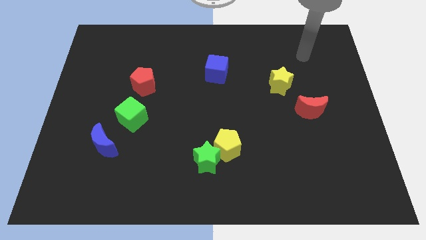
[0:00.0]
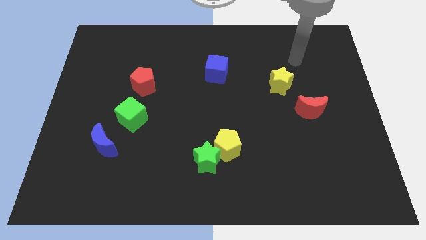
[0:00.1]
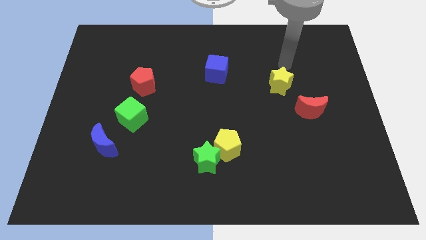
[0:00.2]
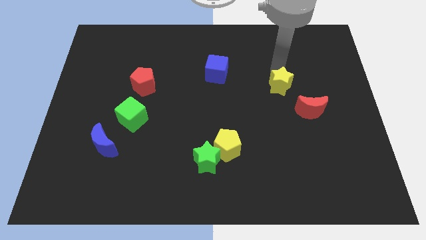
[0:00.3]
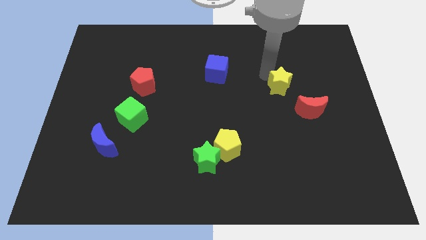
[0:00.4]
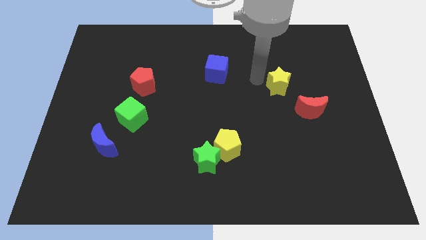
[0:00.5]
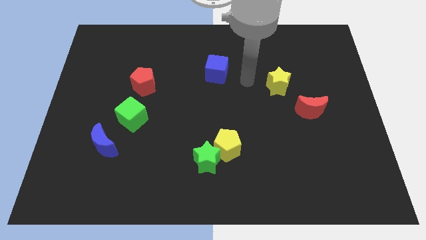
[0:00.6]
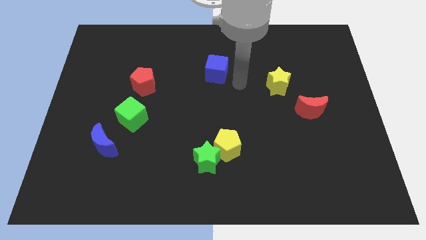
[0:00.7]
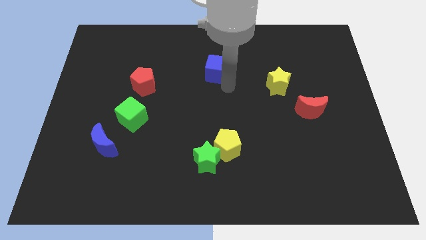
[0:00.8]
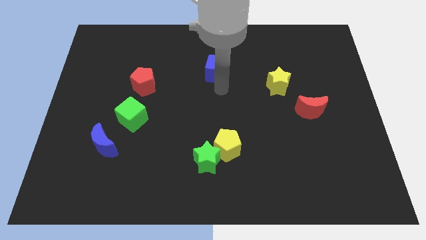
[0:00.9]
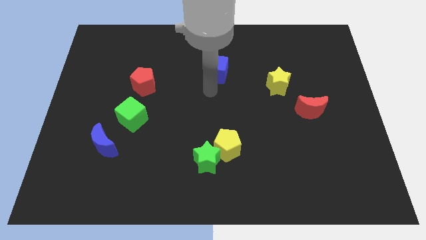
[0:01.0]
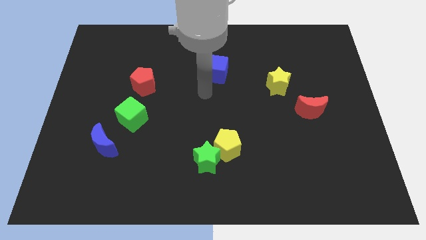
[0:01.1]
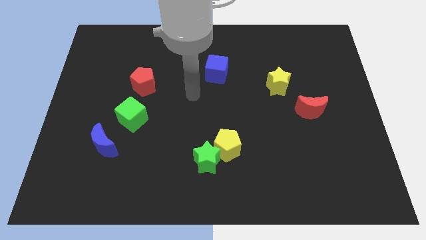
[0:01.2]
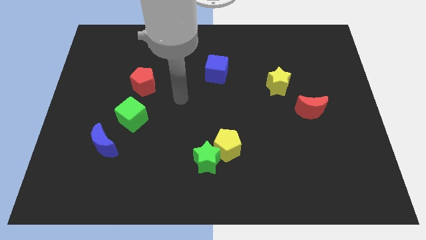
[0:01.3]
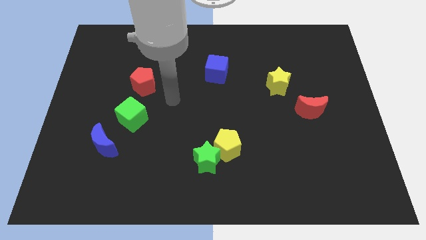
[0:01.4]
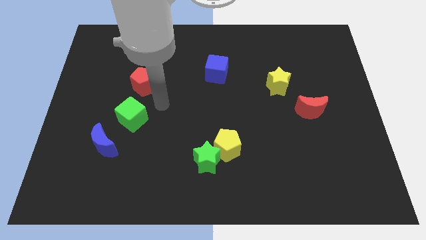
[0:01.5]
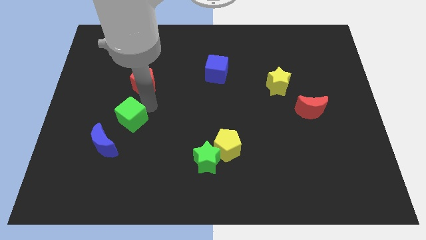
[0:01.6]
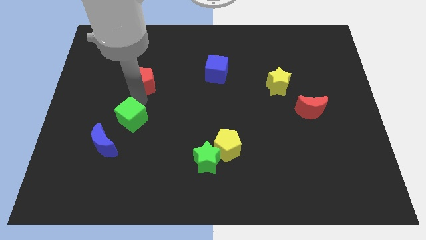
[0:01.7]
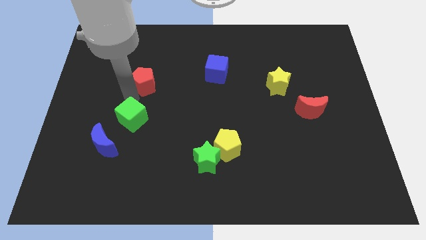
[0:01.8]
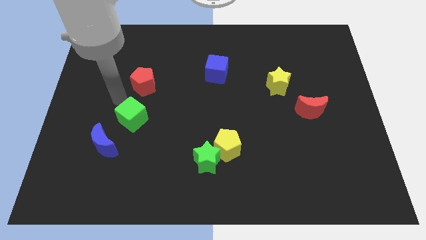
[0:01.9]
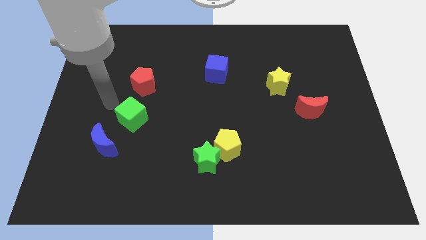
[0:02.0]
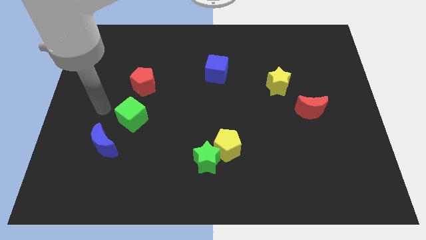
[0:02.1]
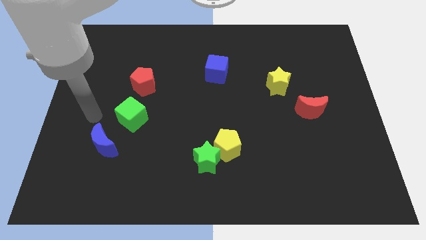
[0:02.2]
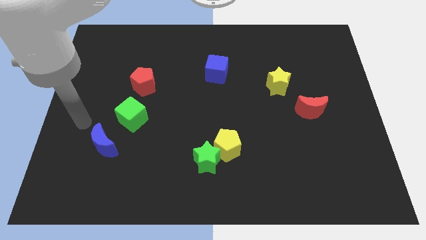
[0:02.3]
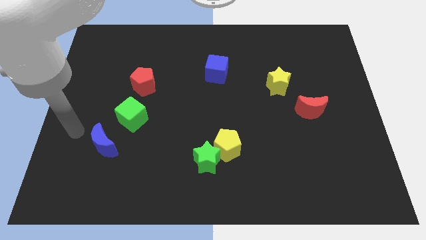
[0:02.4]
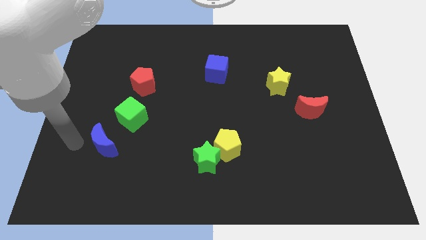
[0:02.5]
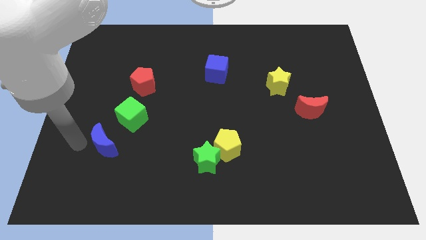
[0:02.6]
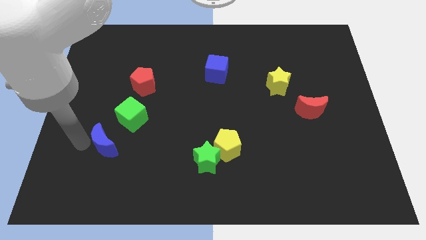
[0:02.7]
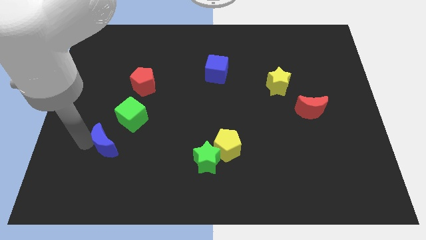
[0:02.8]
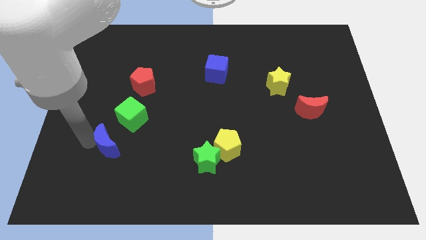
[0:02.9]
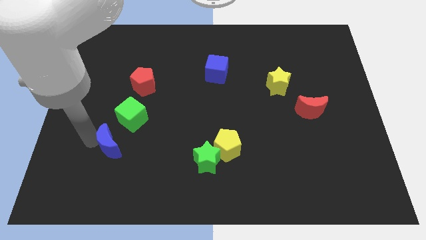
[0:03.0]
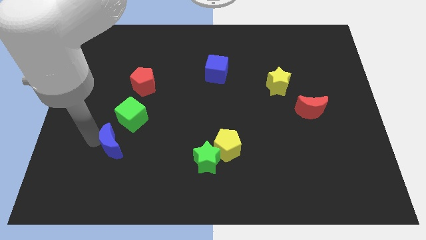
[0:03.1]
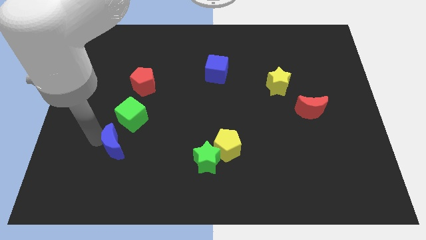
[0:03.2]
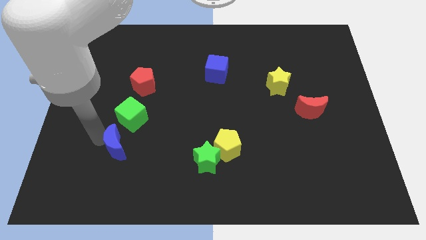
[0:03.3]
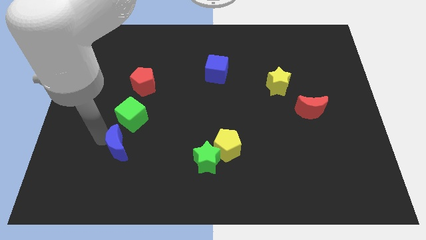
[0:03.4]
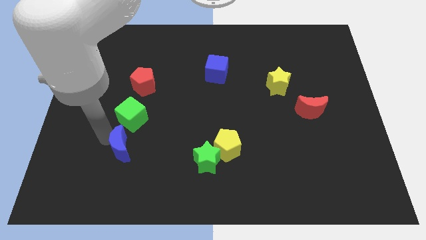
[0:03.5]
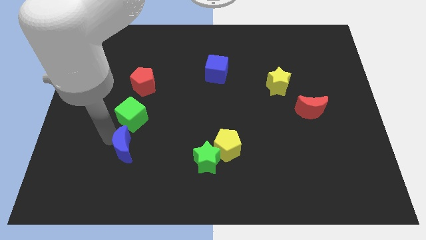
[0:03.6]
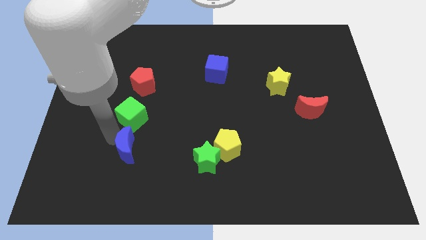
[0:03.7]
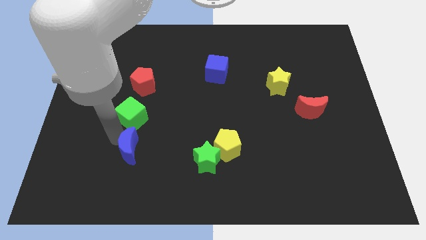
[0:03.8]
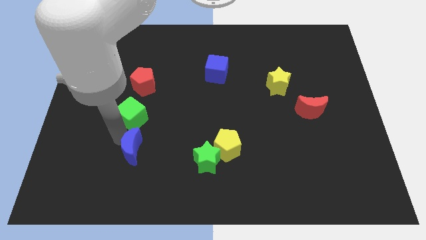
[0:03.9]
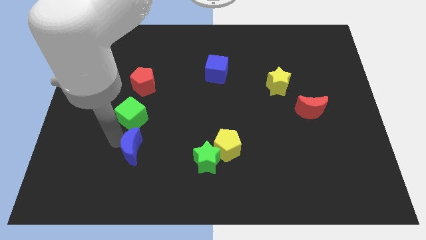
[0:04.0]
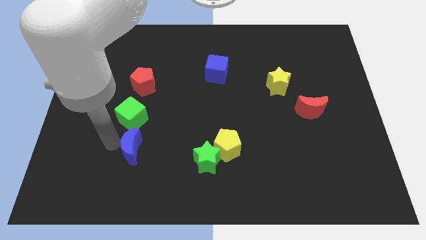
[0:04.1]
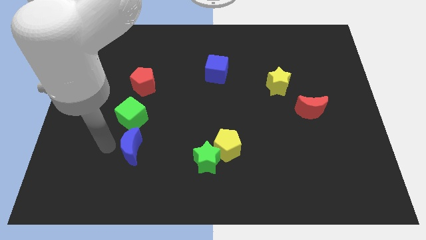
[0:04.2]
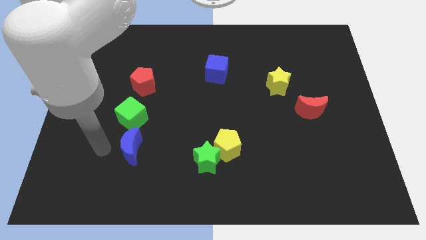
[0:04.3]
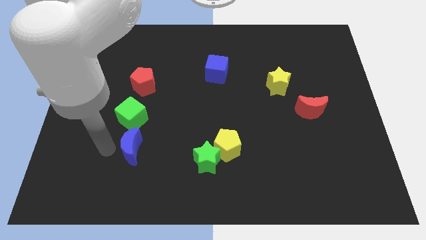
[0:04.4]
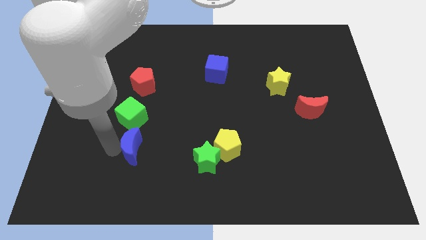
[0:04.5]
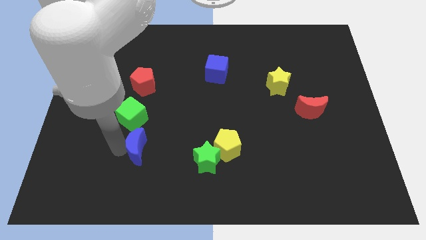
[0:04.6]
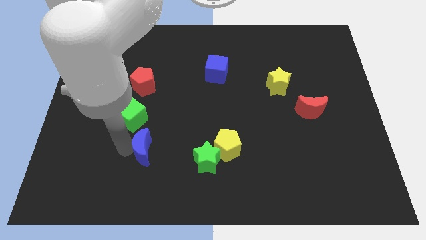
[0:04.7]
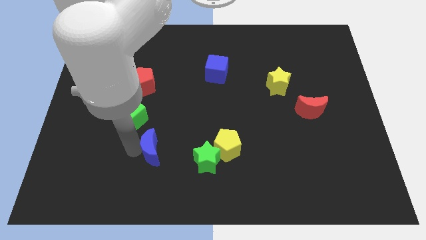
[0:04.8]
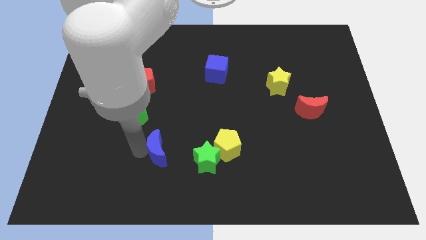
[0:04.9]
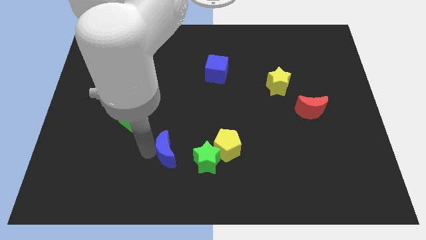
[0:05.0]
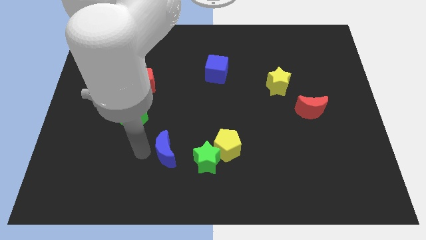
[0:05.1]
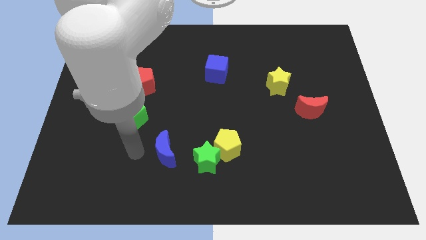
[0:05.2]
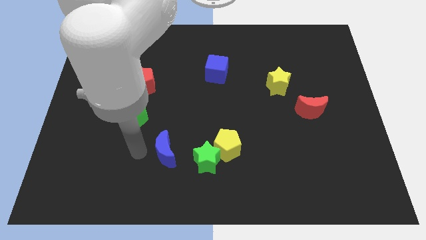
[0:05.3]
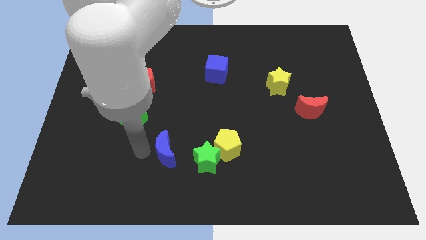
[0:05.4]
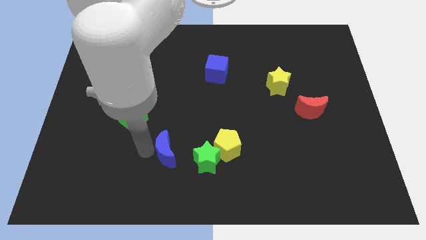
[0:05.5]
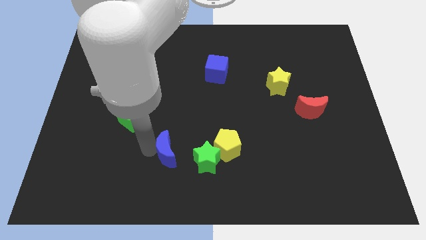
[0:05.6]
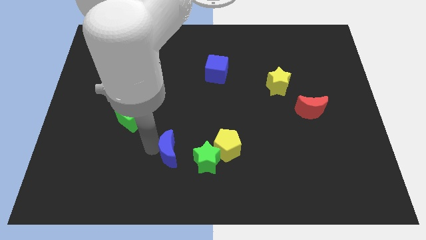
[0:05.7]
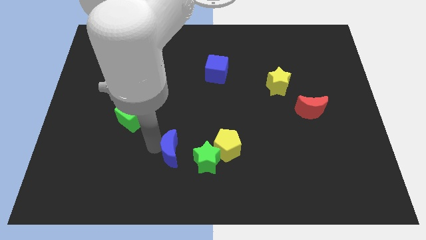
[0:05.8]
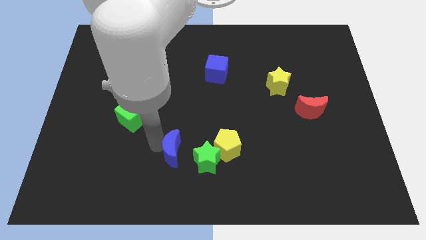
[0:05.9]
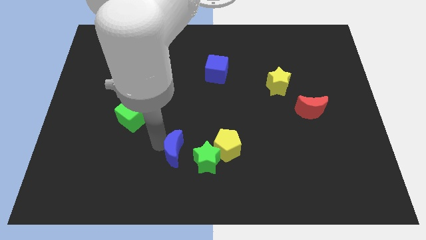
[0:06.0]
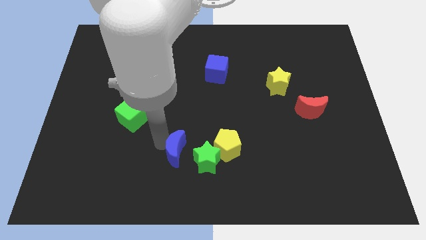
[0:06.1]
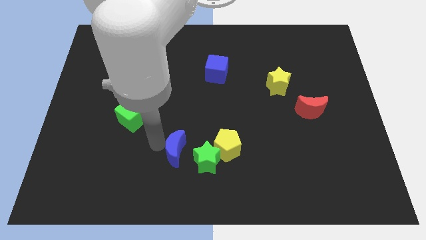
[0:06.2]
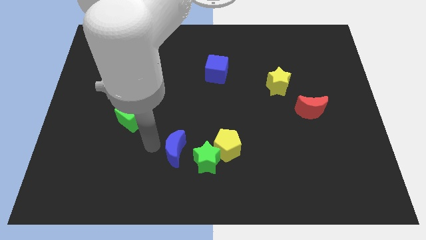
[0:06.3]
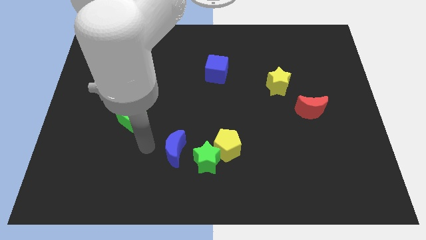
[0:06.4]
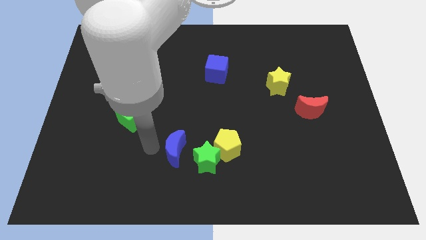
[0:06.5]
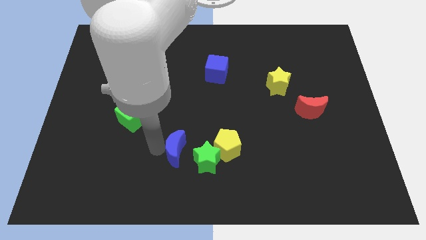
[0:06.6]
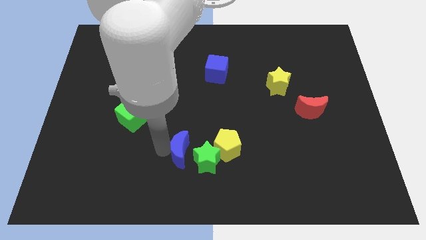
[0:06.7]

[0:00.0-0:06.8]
slide the blue moon next to the green star

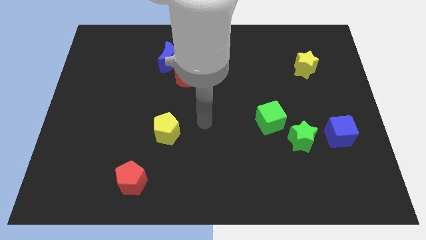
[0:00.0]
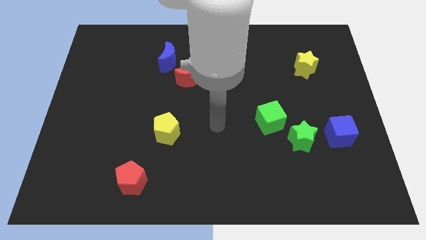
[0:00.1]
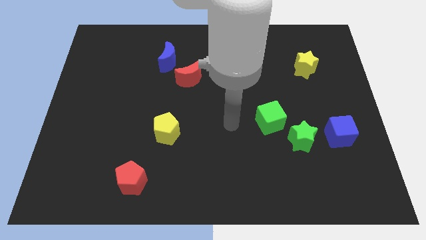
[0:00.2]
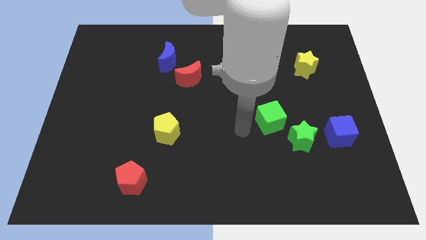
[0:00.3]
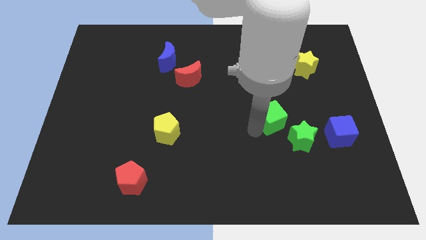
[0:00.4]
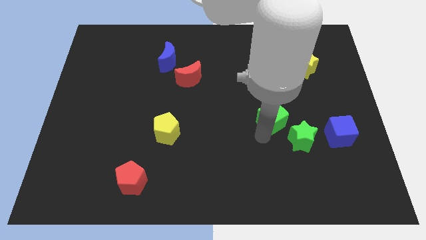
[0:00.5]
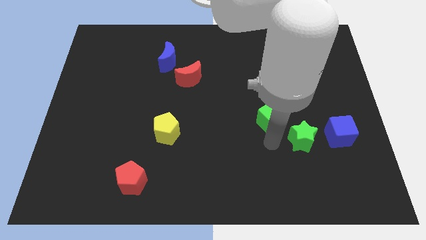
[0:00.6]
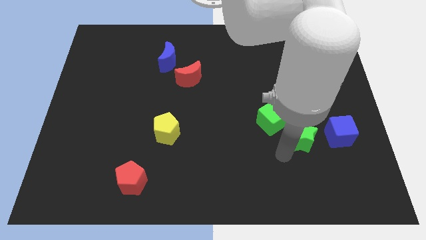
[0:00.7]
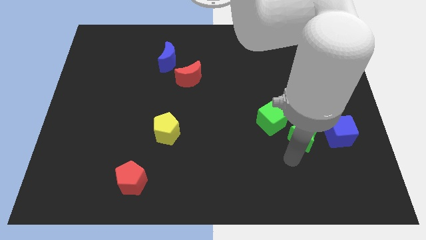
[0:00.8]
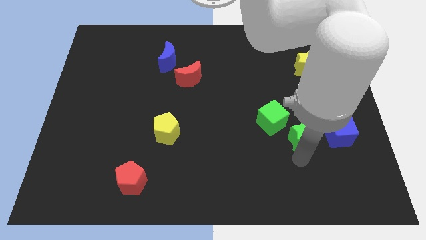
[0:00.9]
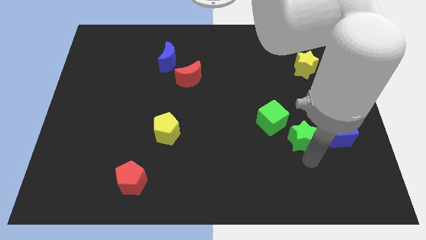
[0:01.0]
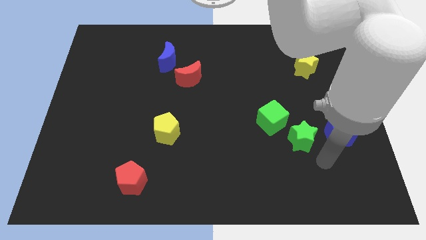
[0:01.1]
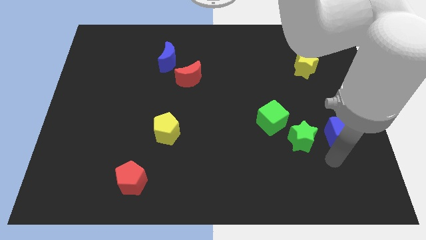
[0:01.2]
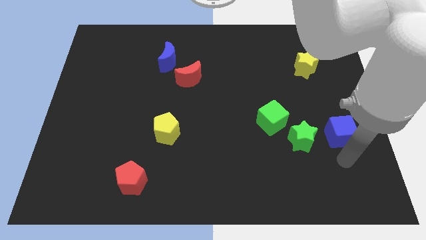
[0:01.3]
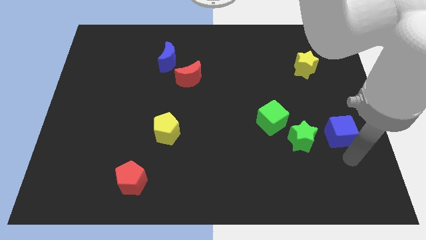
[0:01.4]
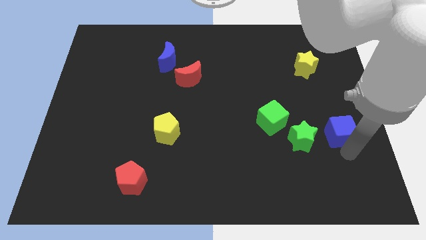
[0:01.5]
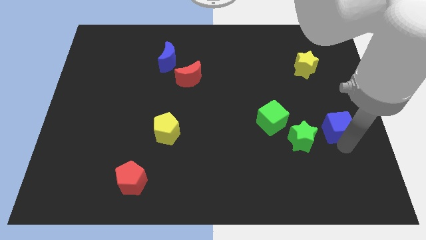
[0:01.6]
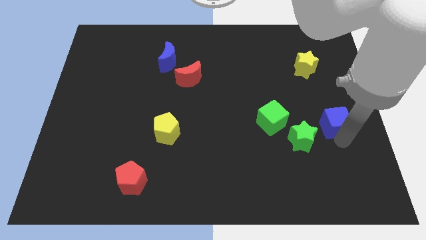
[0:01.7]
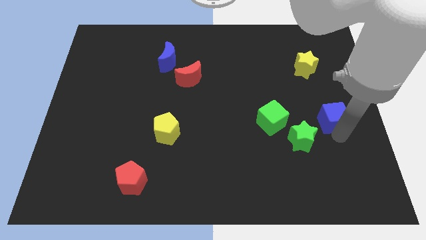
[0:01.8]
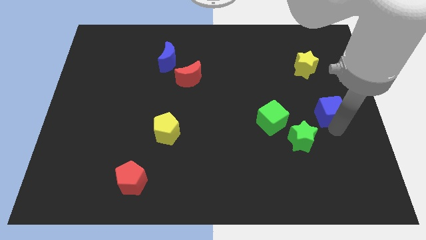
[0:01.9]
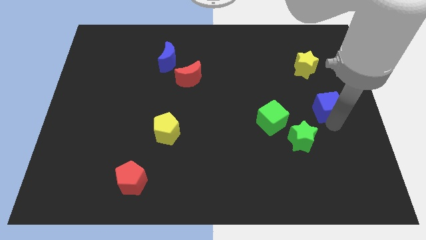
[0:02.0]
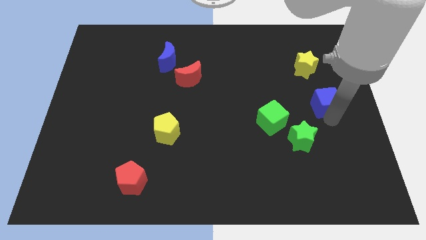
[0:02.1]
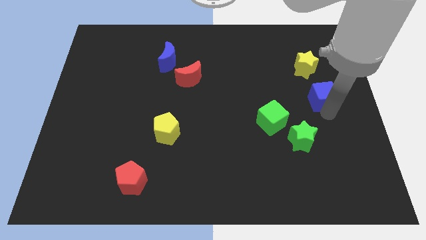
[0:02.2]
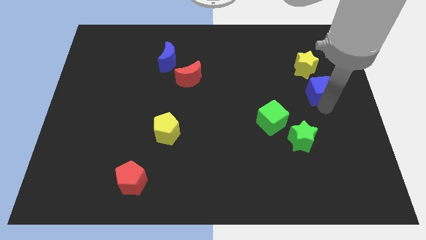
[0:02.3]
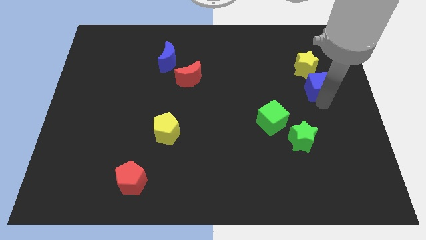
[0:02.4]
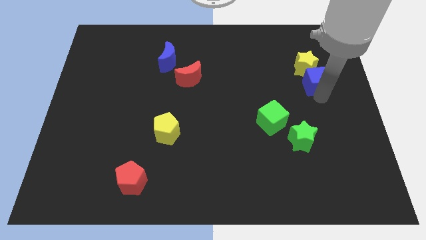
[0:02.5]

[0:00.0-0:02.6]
push the blue cube close to the yellow star
